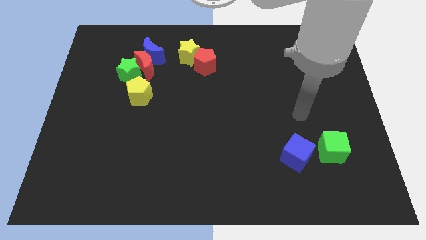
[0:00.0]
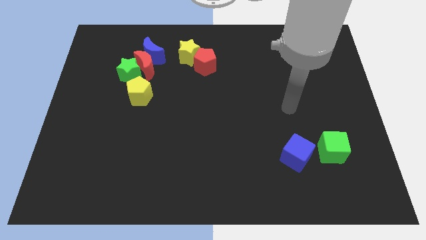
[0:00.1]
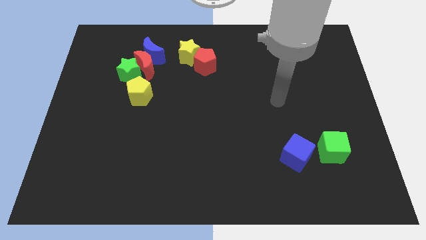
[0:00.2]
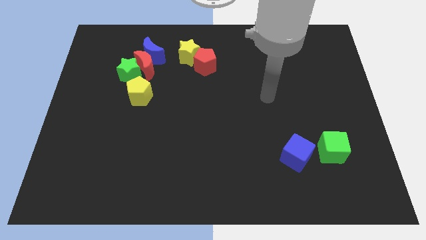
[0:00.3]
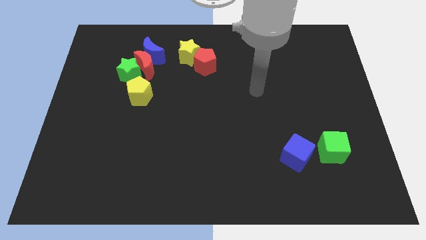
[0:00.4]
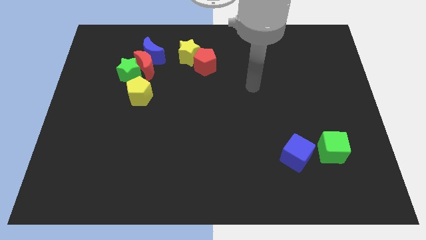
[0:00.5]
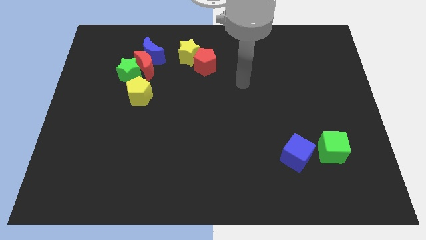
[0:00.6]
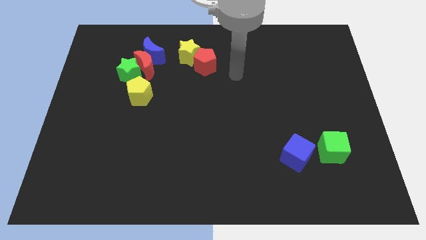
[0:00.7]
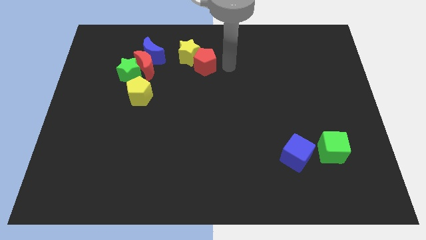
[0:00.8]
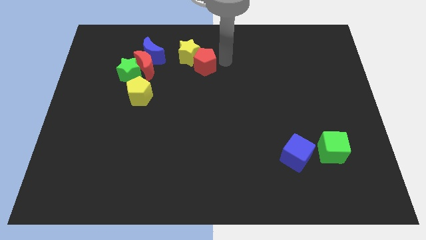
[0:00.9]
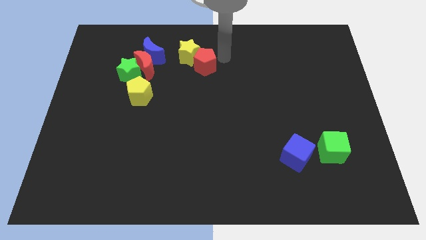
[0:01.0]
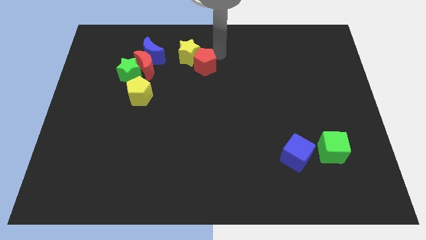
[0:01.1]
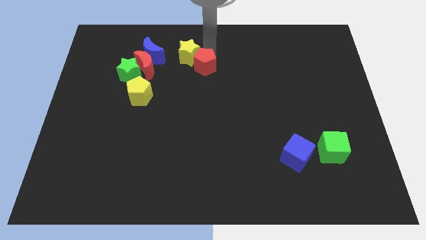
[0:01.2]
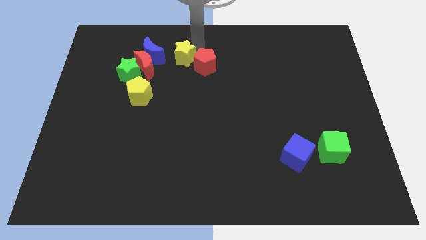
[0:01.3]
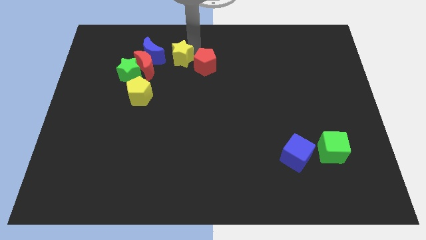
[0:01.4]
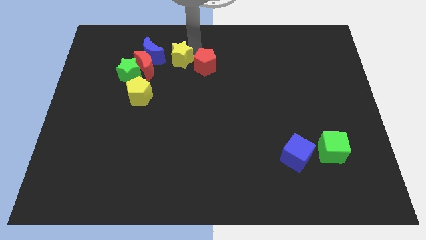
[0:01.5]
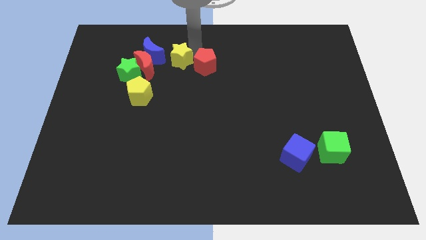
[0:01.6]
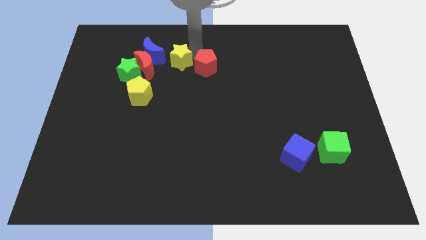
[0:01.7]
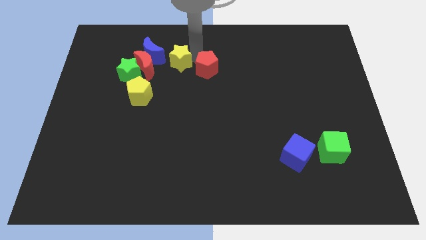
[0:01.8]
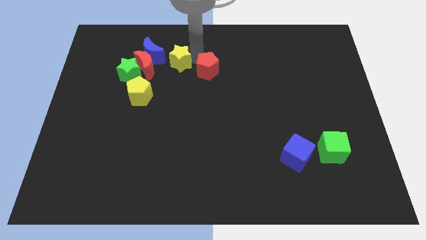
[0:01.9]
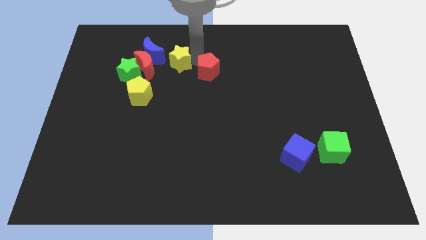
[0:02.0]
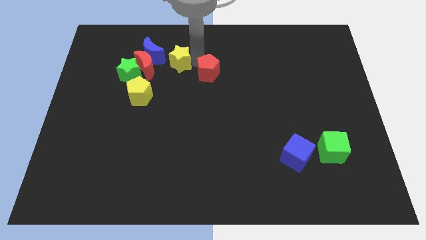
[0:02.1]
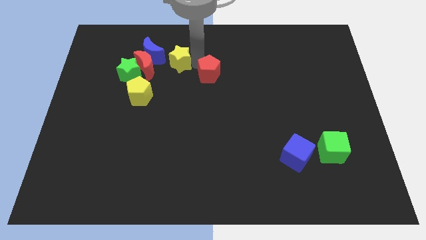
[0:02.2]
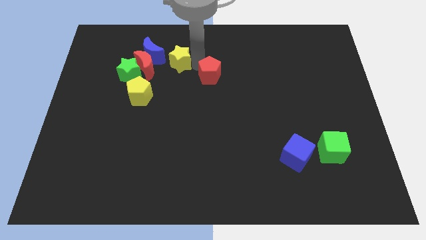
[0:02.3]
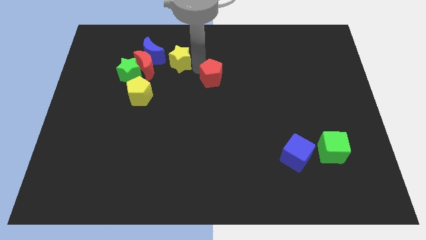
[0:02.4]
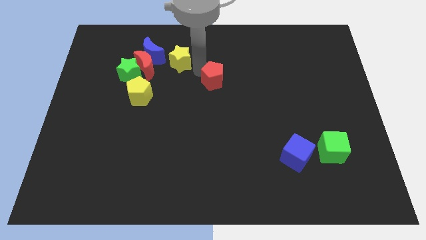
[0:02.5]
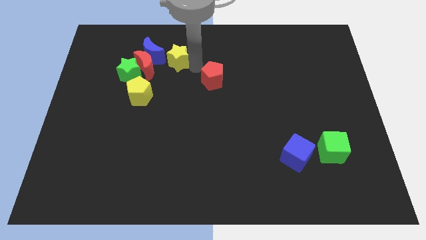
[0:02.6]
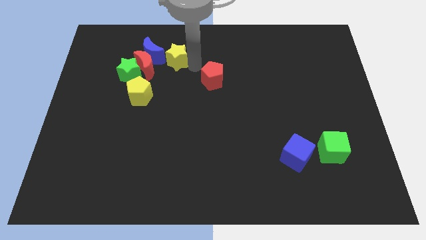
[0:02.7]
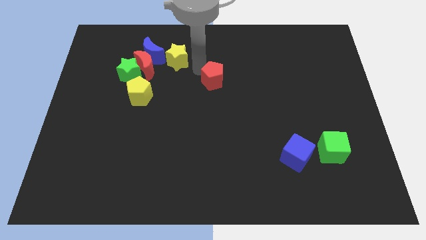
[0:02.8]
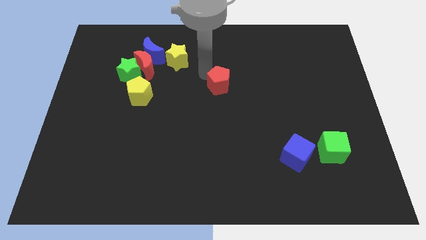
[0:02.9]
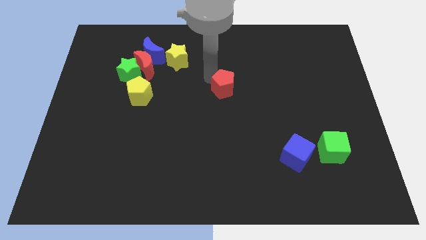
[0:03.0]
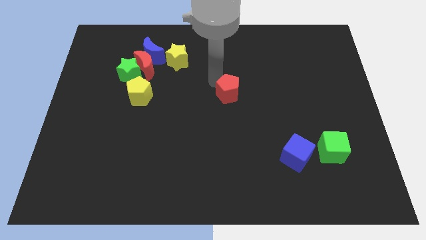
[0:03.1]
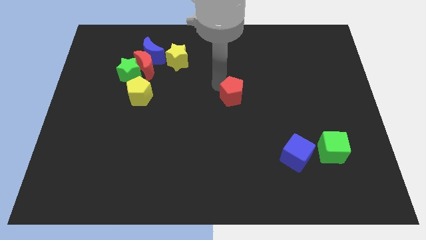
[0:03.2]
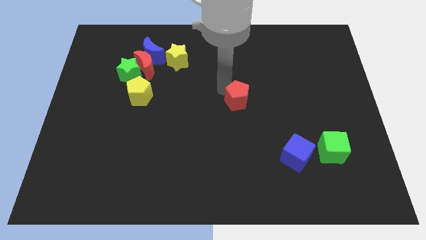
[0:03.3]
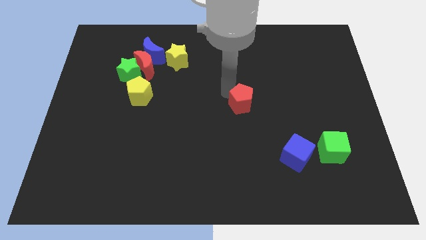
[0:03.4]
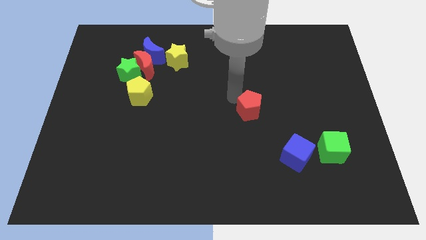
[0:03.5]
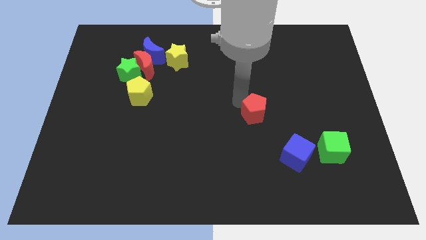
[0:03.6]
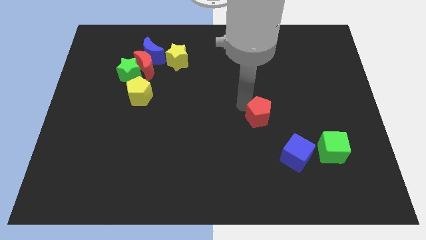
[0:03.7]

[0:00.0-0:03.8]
push the red pentagon downwards and to the right

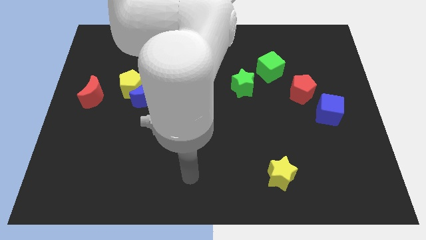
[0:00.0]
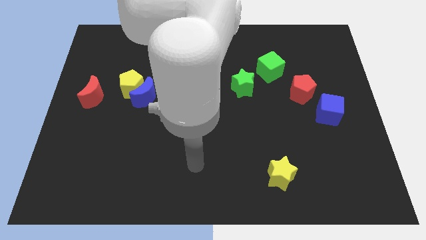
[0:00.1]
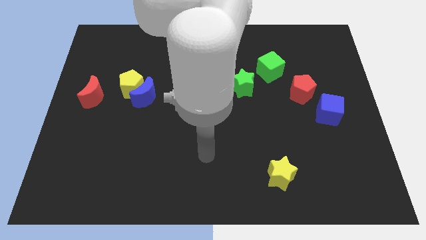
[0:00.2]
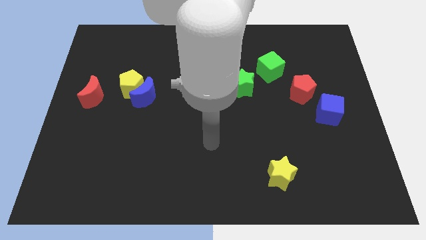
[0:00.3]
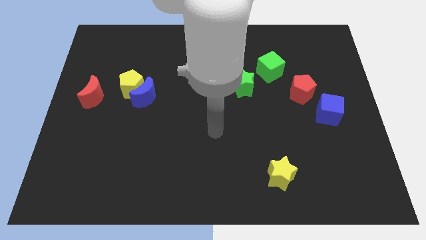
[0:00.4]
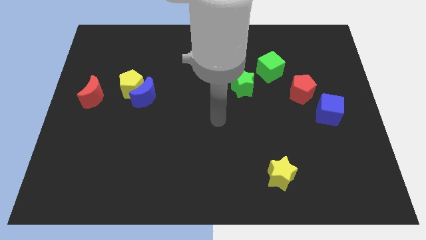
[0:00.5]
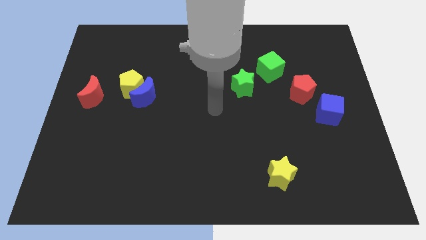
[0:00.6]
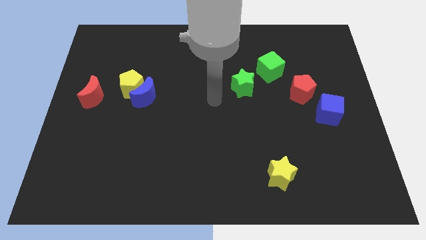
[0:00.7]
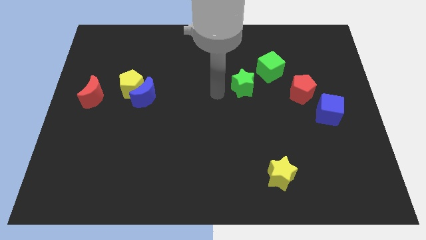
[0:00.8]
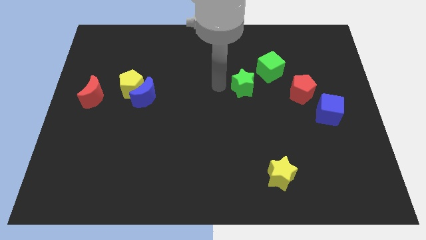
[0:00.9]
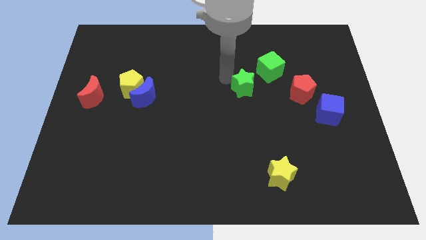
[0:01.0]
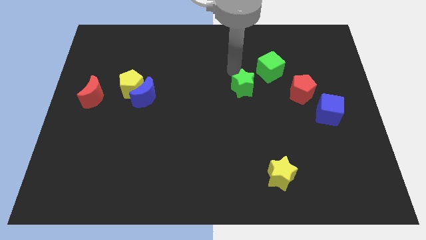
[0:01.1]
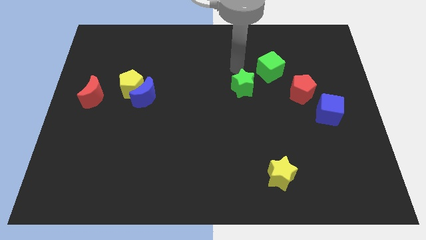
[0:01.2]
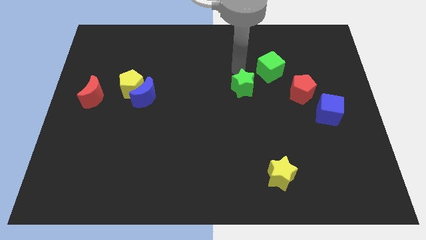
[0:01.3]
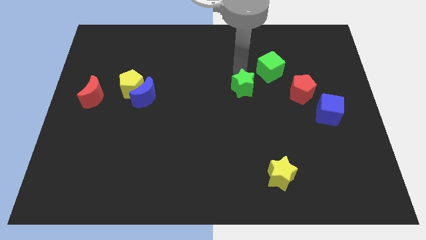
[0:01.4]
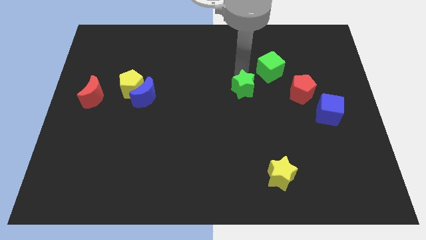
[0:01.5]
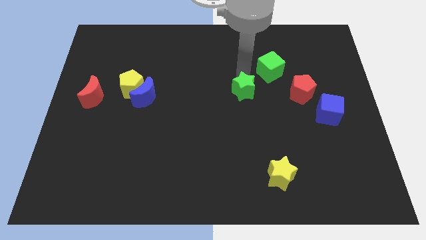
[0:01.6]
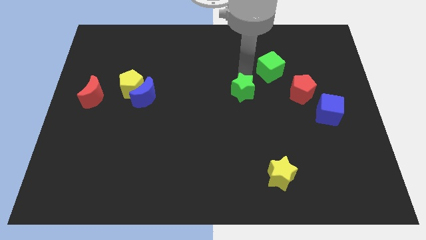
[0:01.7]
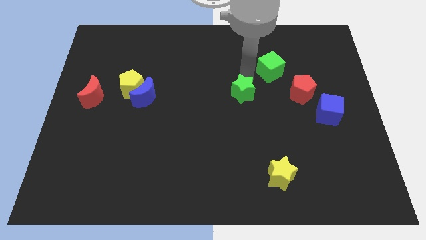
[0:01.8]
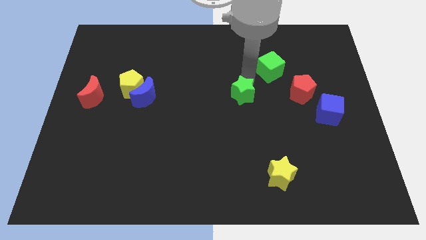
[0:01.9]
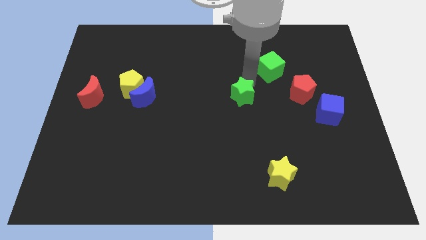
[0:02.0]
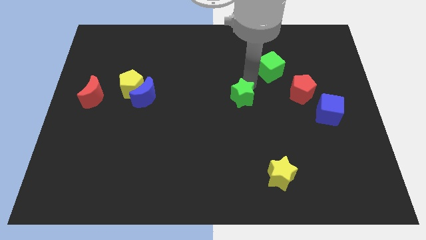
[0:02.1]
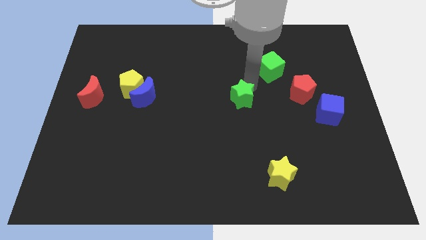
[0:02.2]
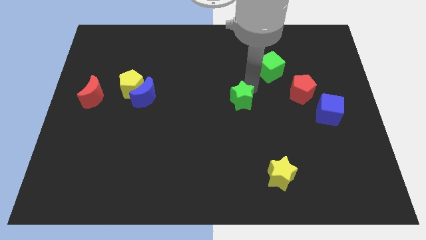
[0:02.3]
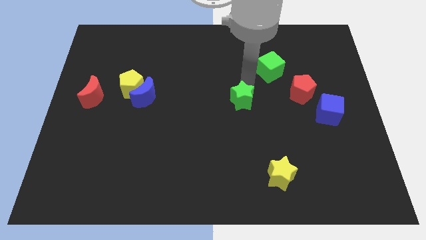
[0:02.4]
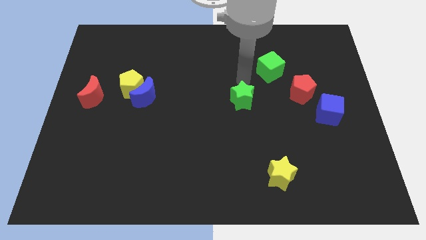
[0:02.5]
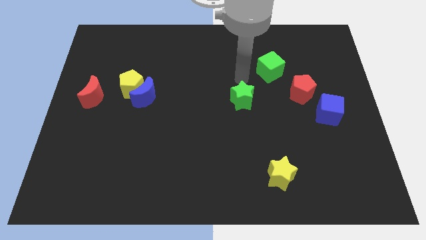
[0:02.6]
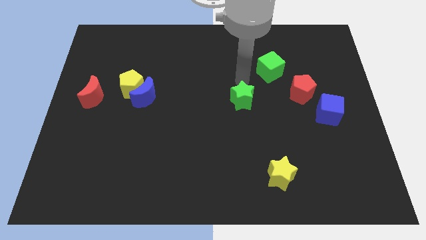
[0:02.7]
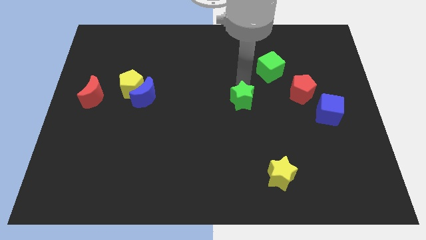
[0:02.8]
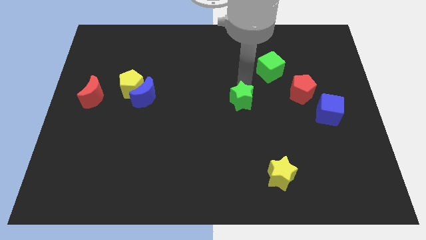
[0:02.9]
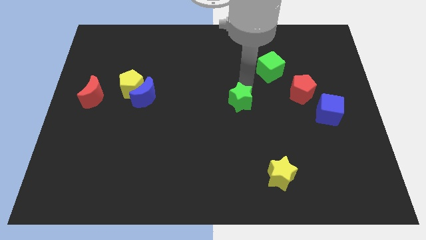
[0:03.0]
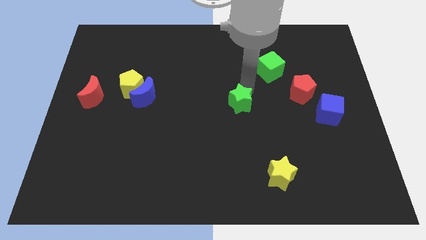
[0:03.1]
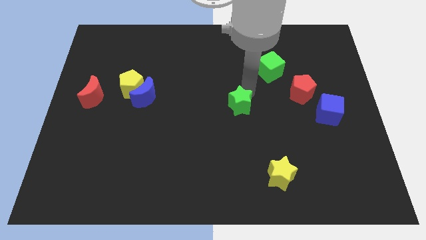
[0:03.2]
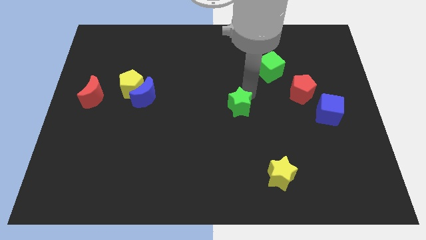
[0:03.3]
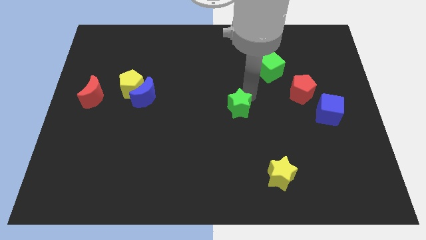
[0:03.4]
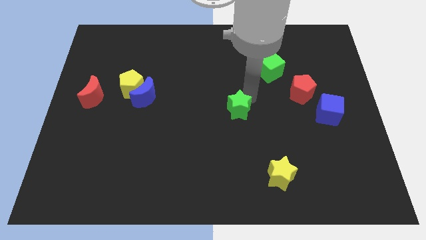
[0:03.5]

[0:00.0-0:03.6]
move the green star a little down

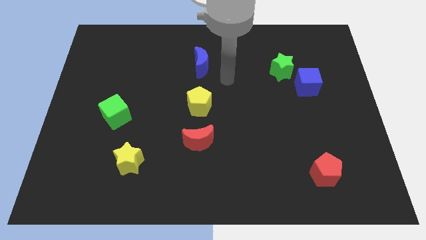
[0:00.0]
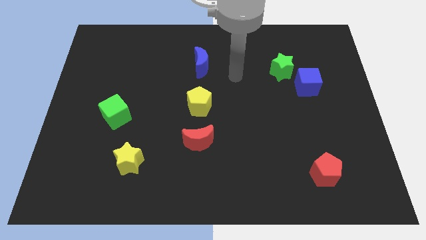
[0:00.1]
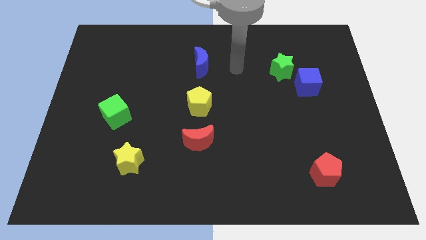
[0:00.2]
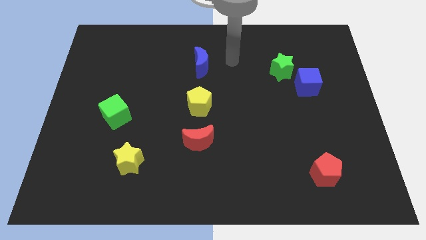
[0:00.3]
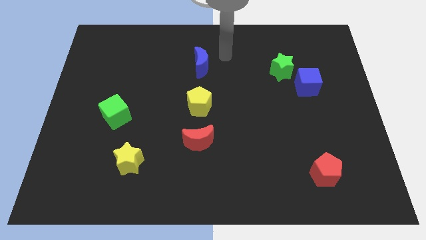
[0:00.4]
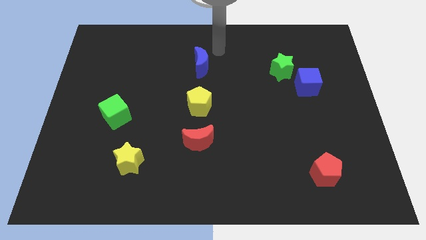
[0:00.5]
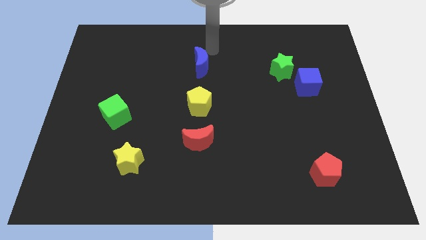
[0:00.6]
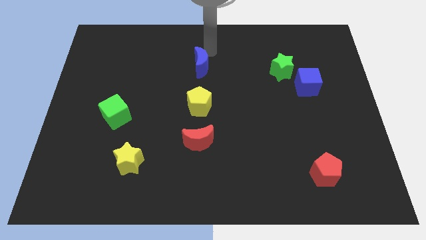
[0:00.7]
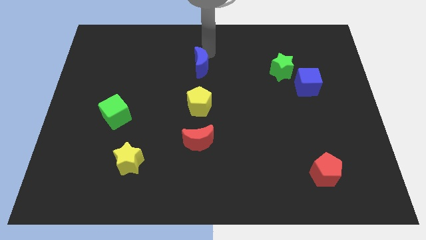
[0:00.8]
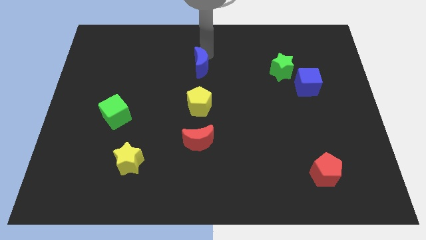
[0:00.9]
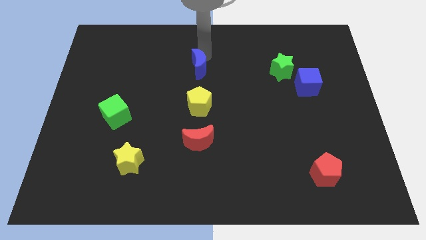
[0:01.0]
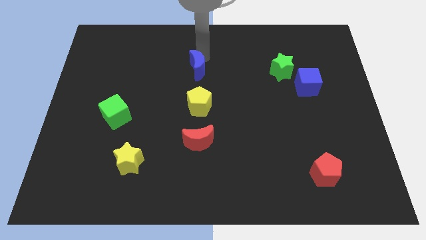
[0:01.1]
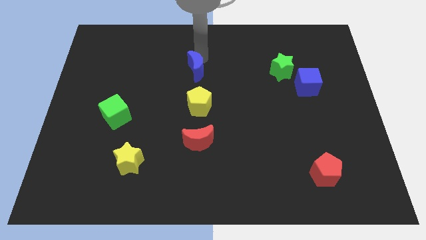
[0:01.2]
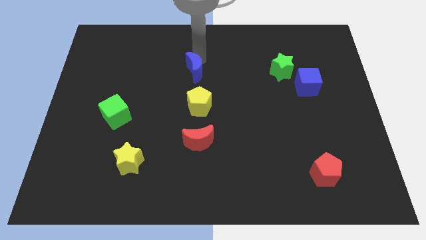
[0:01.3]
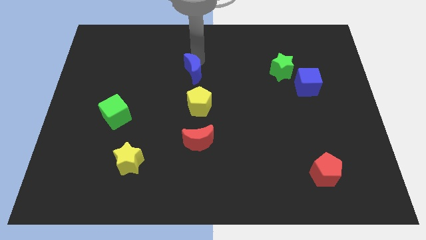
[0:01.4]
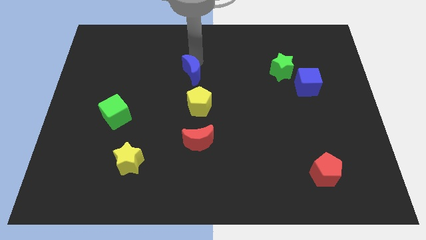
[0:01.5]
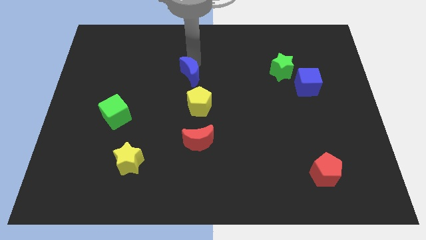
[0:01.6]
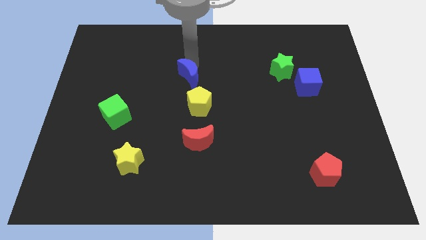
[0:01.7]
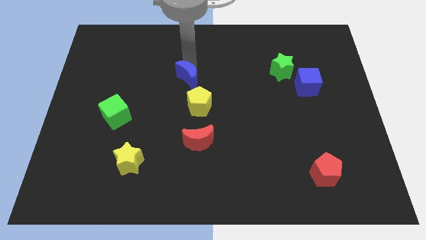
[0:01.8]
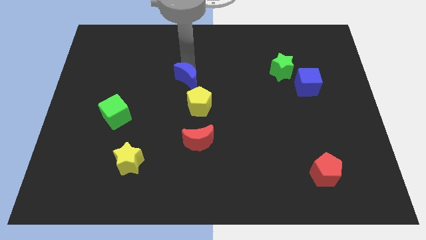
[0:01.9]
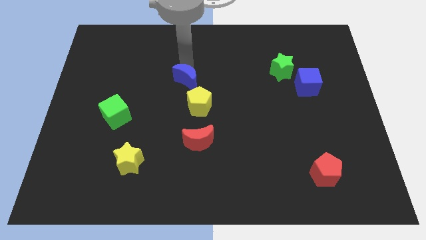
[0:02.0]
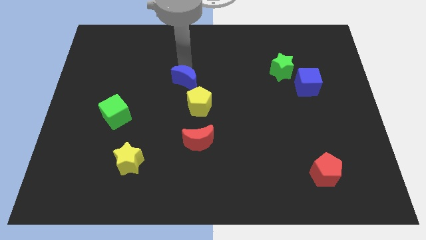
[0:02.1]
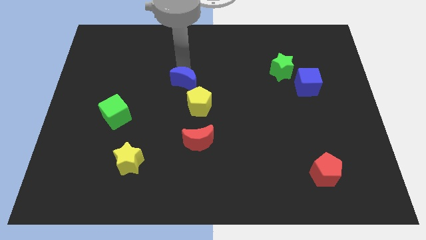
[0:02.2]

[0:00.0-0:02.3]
slightly move the blue moon down and left
